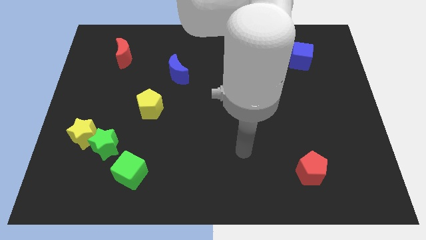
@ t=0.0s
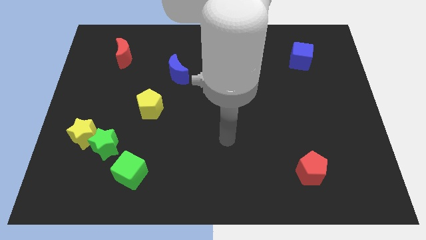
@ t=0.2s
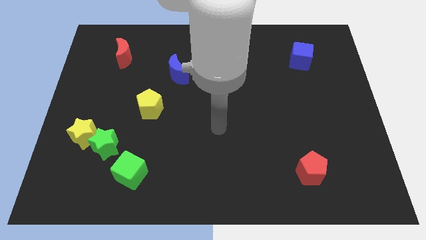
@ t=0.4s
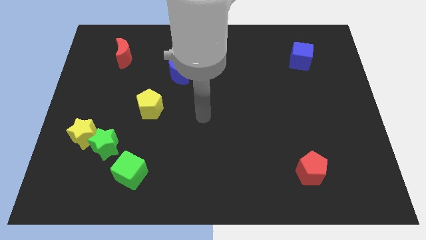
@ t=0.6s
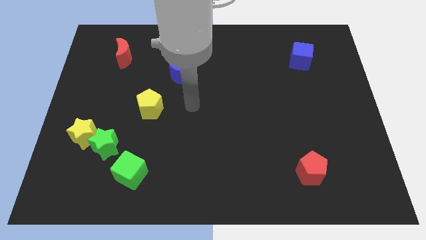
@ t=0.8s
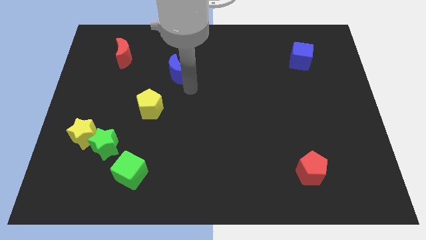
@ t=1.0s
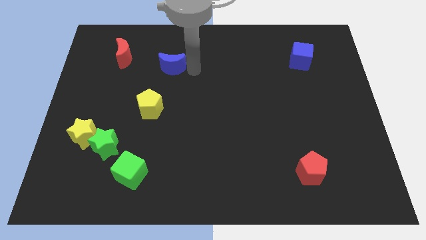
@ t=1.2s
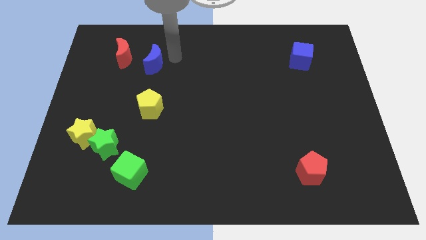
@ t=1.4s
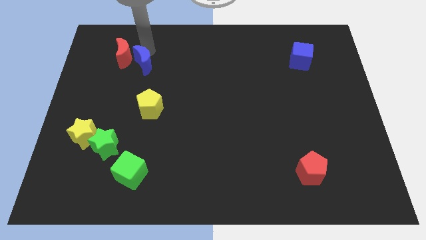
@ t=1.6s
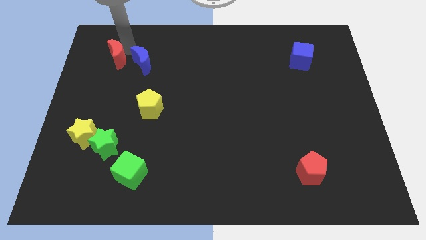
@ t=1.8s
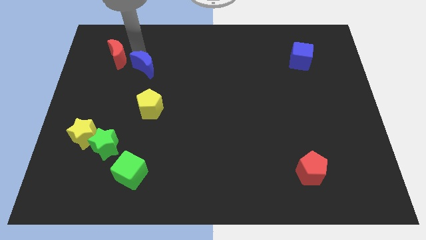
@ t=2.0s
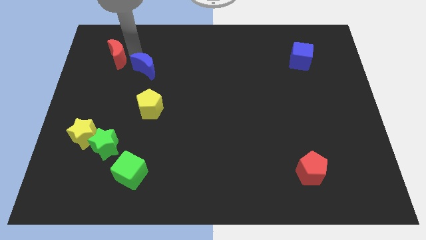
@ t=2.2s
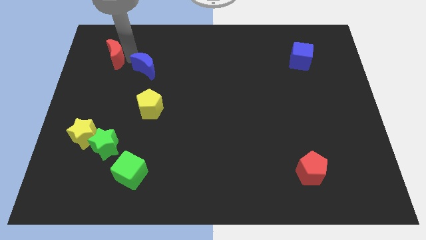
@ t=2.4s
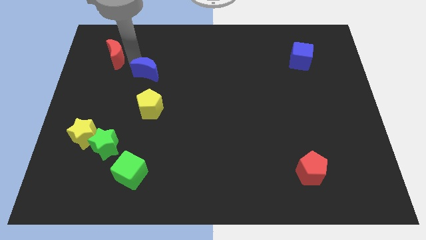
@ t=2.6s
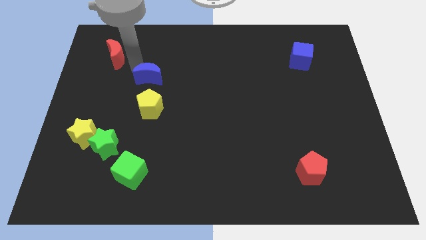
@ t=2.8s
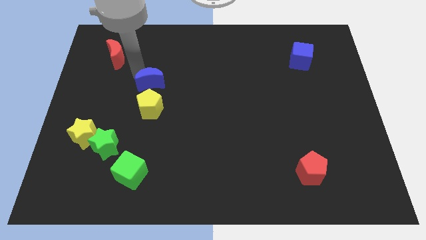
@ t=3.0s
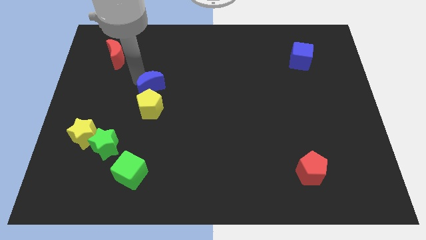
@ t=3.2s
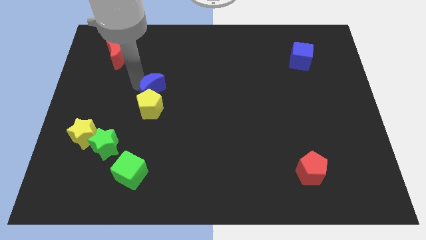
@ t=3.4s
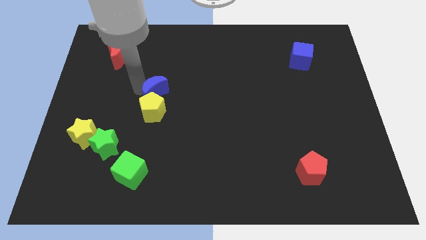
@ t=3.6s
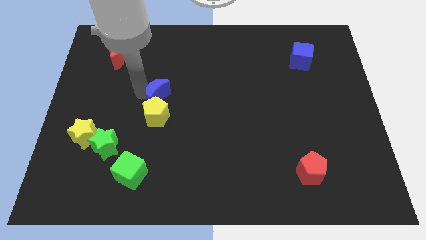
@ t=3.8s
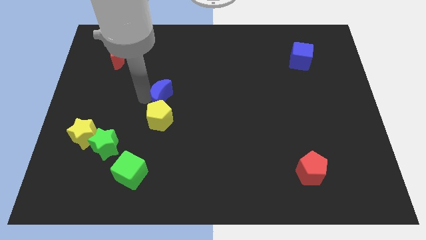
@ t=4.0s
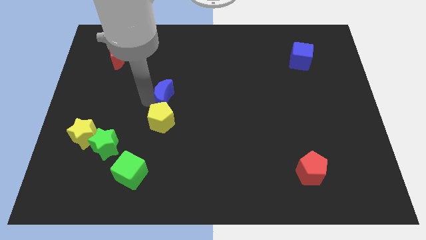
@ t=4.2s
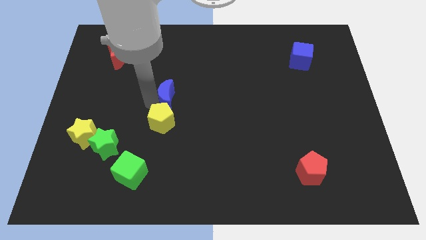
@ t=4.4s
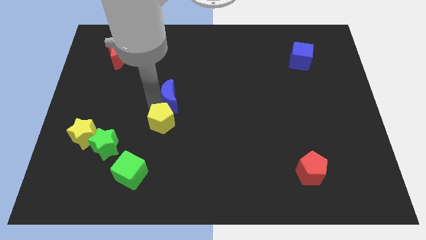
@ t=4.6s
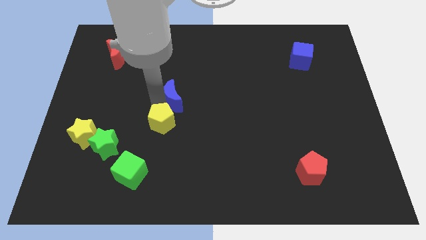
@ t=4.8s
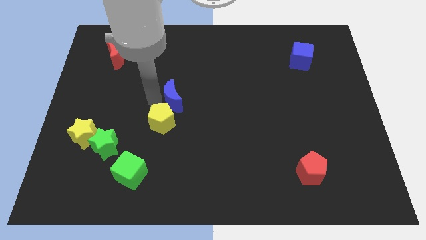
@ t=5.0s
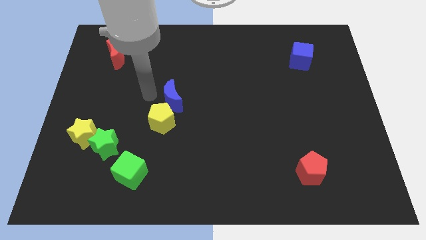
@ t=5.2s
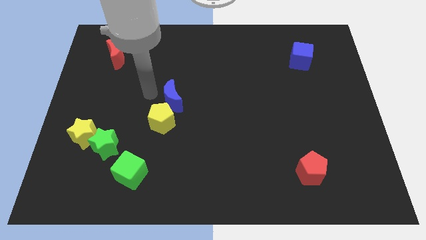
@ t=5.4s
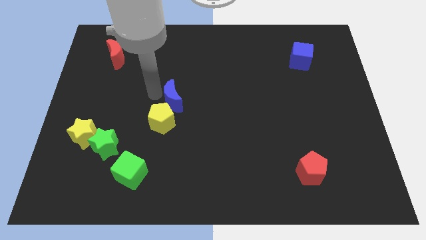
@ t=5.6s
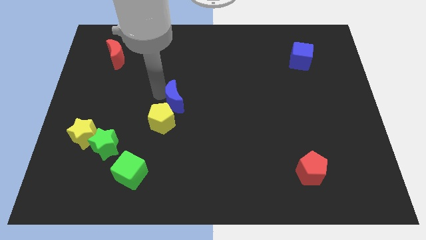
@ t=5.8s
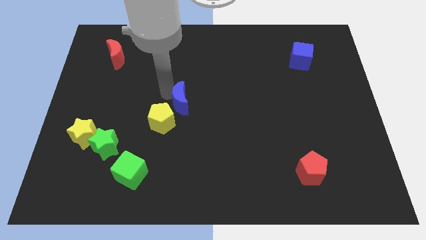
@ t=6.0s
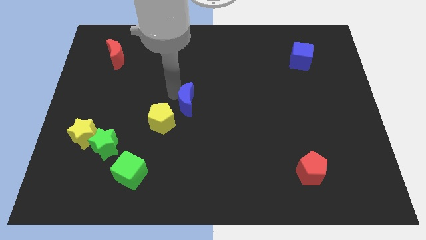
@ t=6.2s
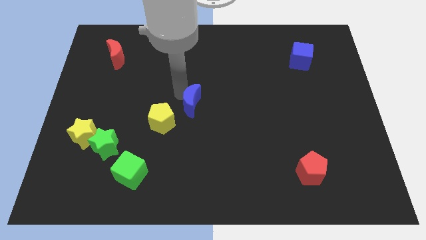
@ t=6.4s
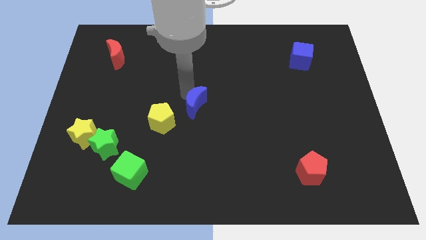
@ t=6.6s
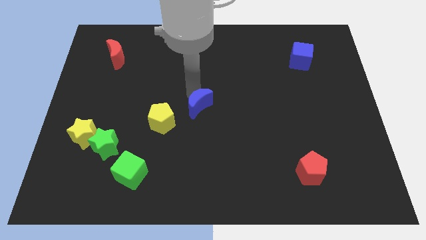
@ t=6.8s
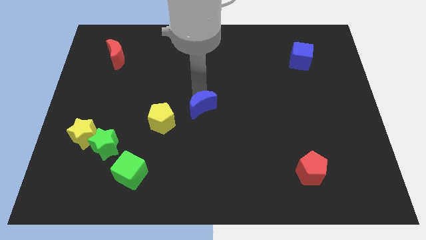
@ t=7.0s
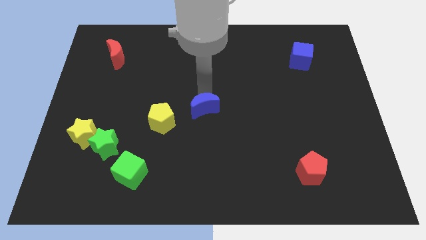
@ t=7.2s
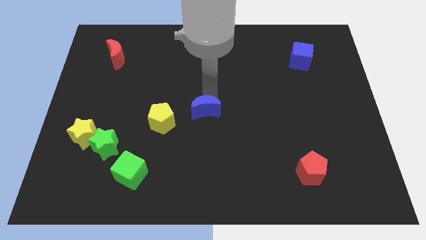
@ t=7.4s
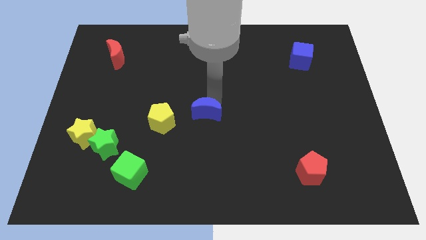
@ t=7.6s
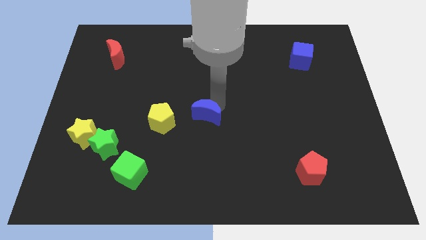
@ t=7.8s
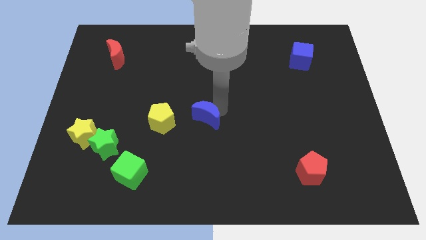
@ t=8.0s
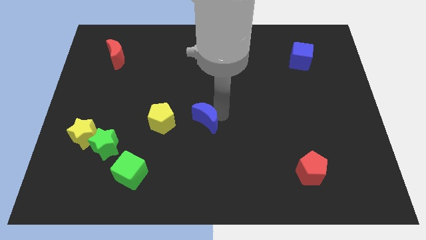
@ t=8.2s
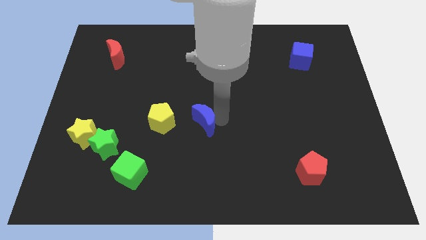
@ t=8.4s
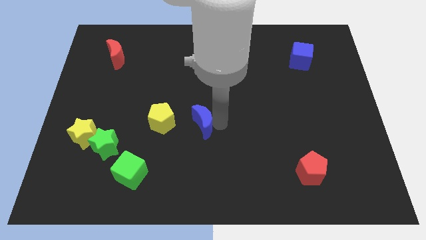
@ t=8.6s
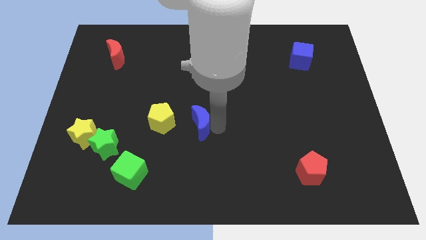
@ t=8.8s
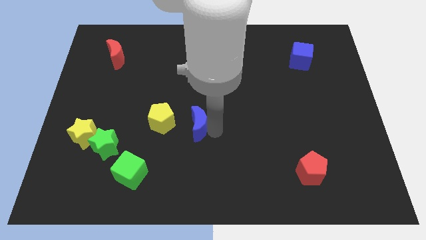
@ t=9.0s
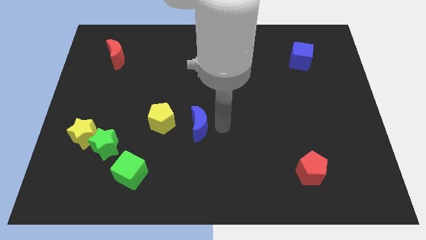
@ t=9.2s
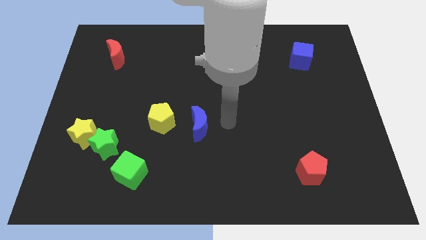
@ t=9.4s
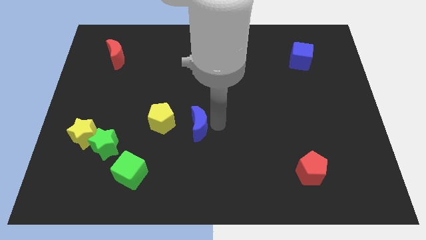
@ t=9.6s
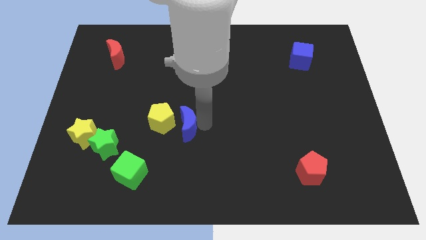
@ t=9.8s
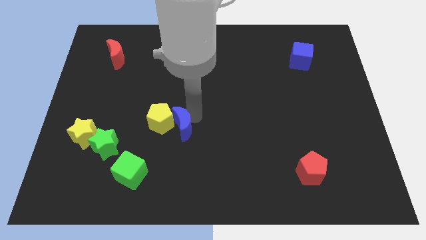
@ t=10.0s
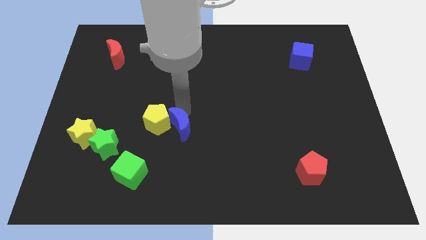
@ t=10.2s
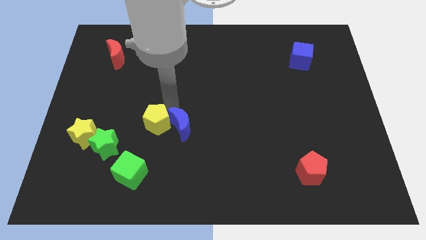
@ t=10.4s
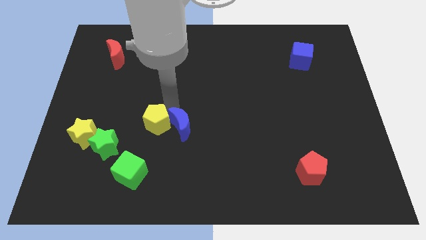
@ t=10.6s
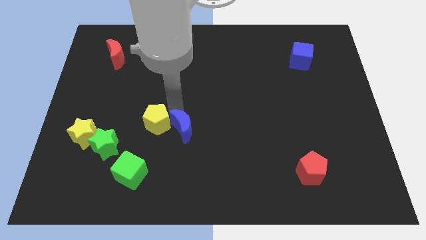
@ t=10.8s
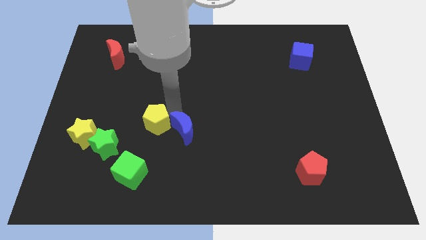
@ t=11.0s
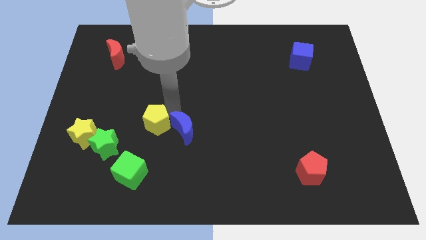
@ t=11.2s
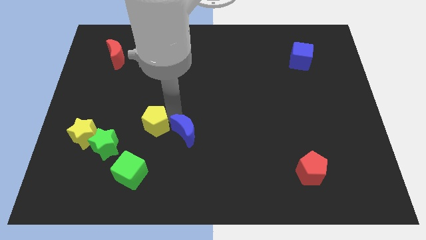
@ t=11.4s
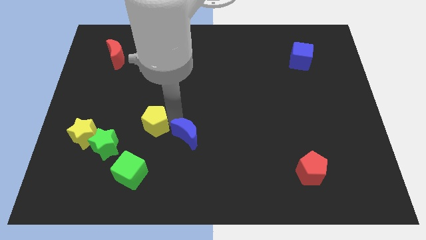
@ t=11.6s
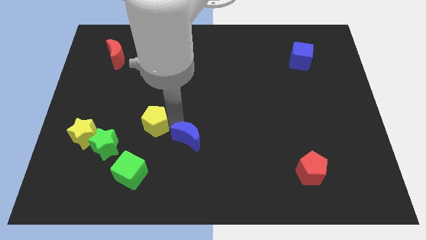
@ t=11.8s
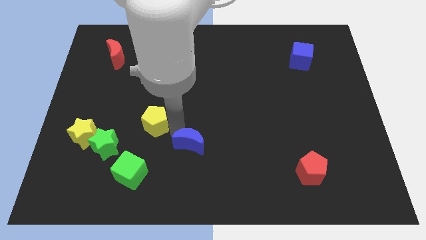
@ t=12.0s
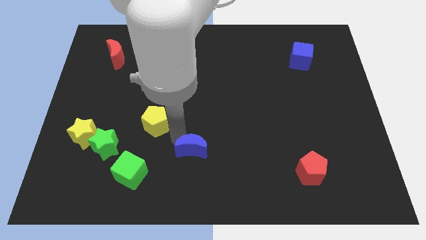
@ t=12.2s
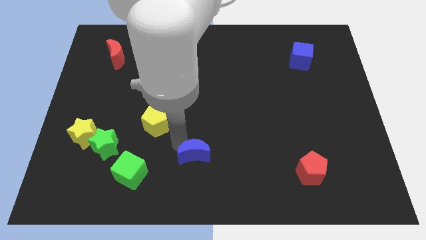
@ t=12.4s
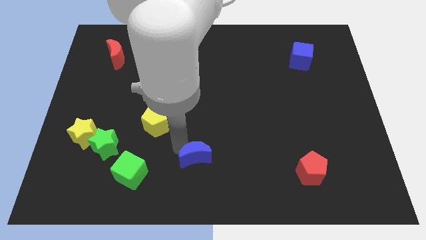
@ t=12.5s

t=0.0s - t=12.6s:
push the blue moon to the bottom side
